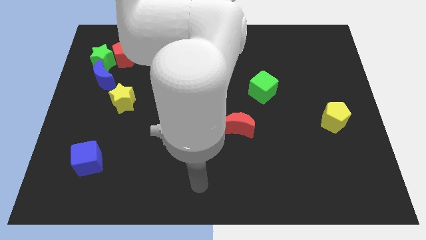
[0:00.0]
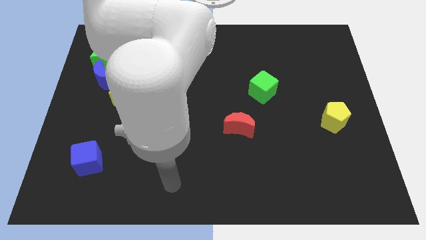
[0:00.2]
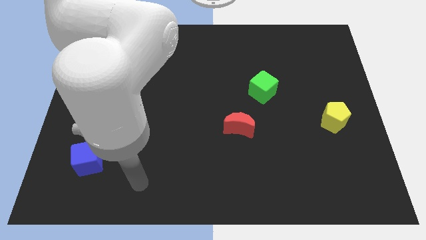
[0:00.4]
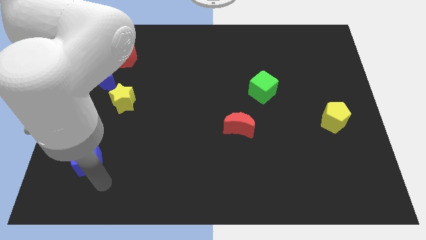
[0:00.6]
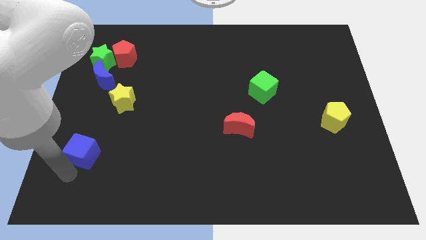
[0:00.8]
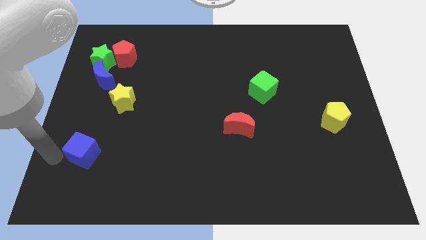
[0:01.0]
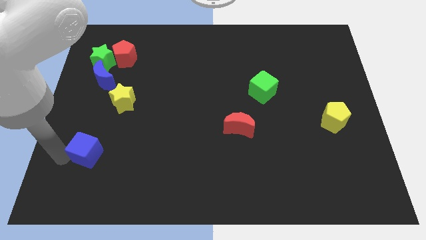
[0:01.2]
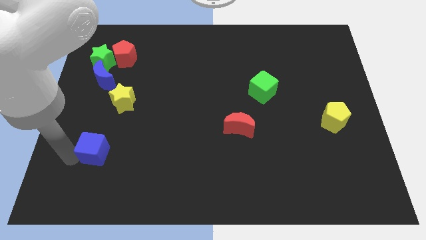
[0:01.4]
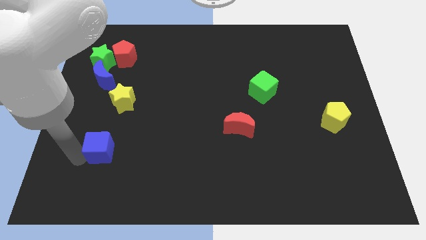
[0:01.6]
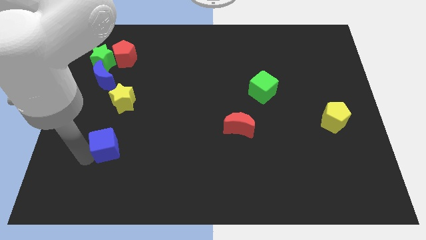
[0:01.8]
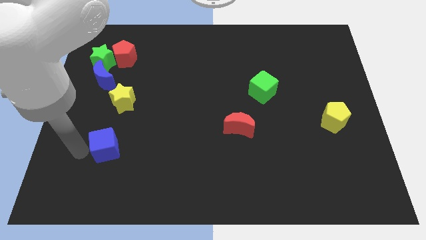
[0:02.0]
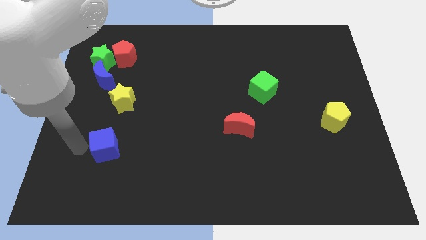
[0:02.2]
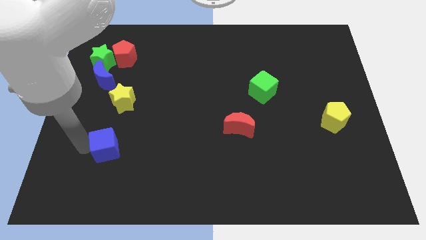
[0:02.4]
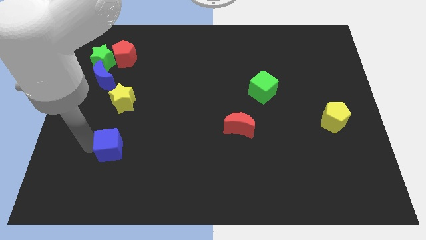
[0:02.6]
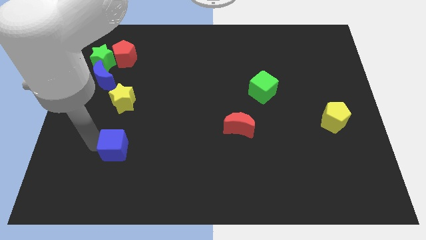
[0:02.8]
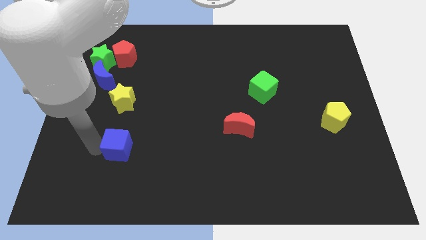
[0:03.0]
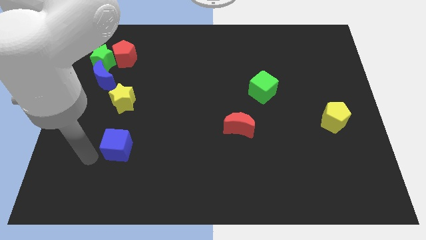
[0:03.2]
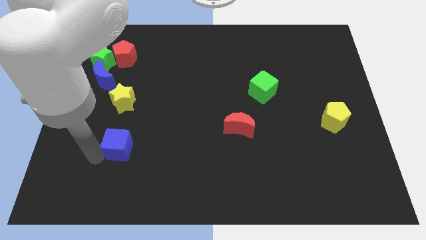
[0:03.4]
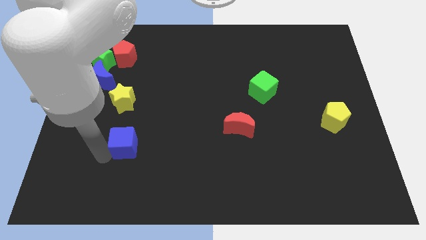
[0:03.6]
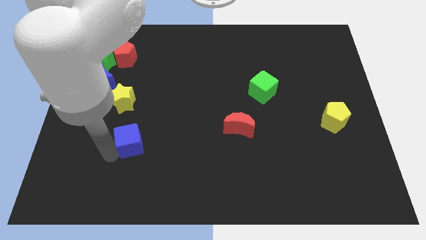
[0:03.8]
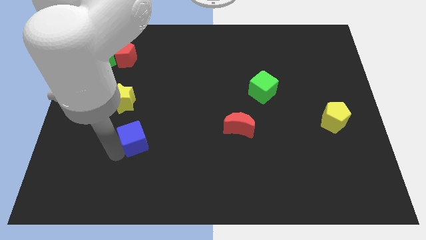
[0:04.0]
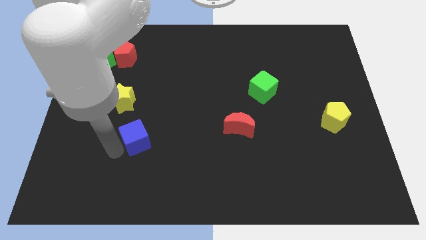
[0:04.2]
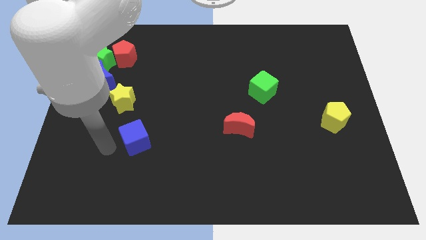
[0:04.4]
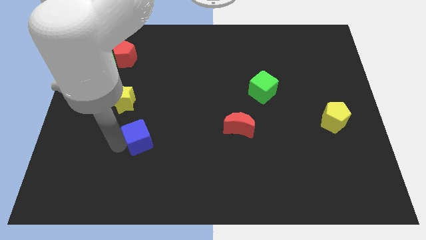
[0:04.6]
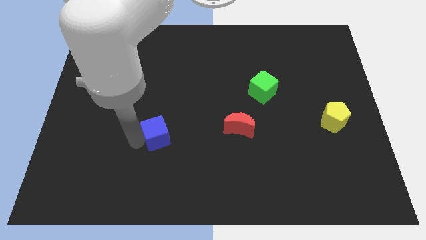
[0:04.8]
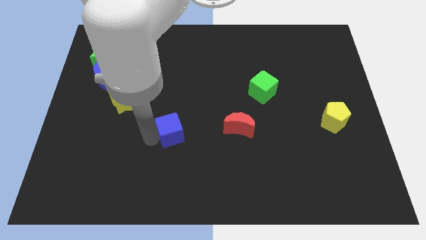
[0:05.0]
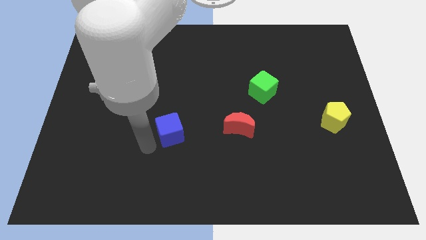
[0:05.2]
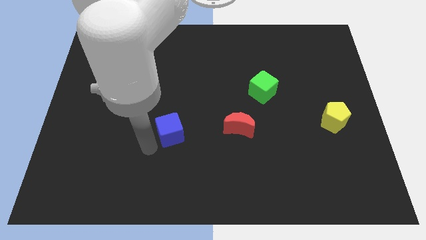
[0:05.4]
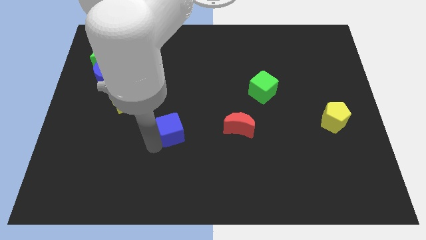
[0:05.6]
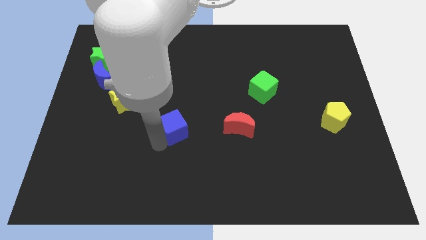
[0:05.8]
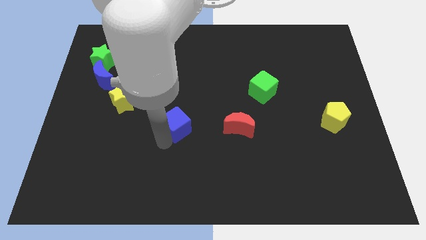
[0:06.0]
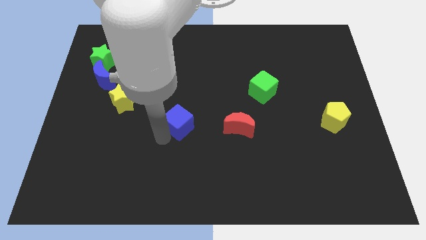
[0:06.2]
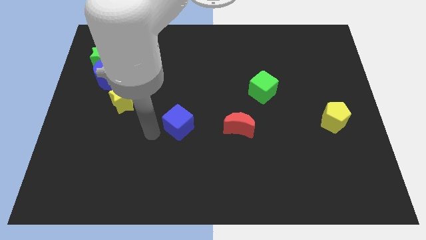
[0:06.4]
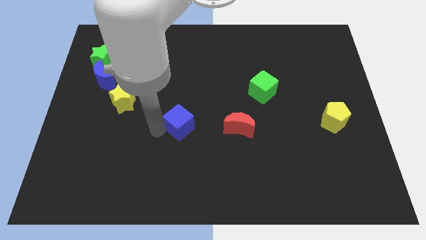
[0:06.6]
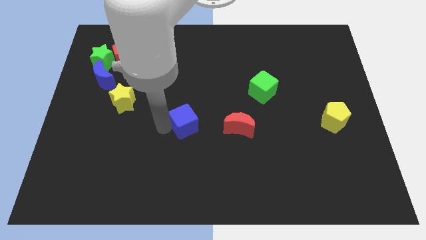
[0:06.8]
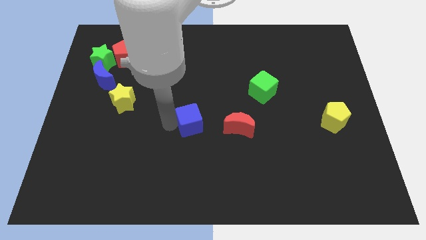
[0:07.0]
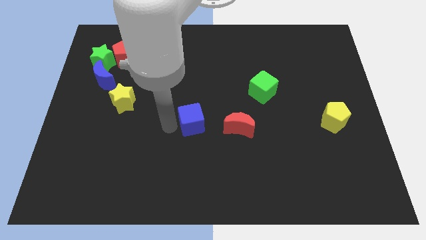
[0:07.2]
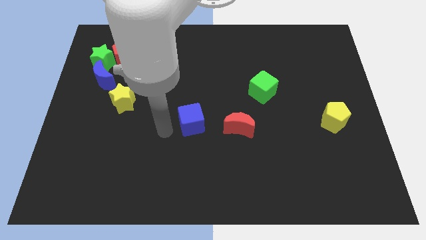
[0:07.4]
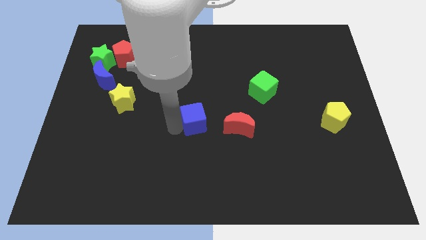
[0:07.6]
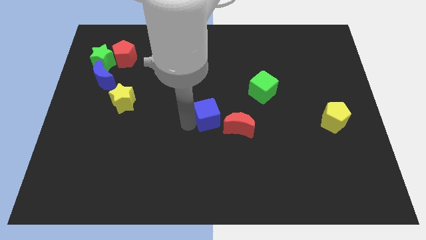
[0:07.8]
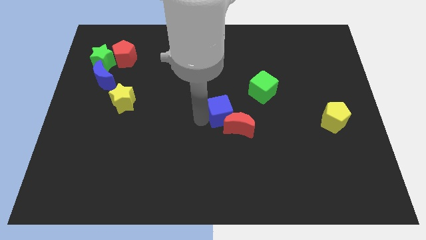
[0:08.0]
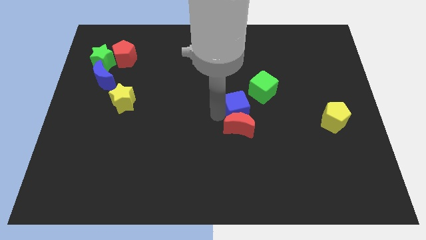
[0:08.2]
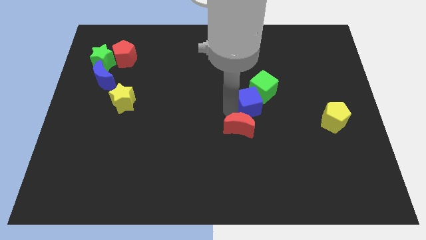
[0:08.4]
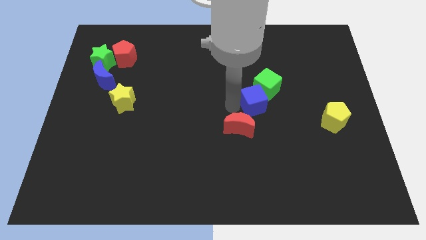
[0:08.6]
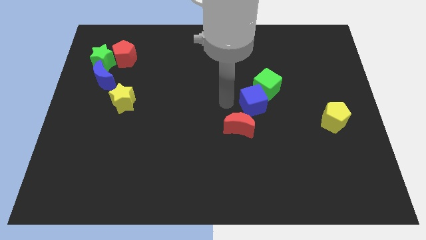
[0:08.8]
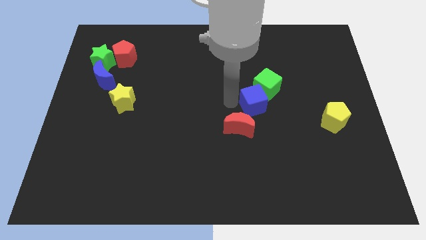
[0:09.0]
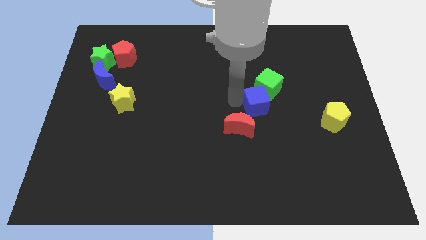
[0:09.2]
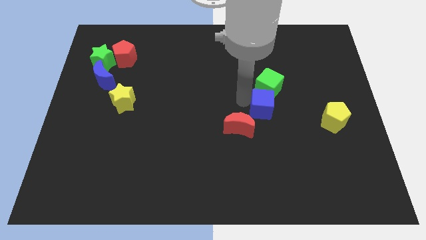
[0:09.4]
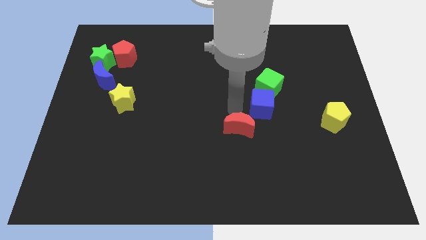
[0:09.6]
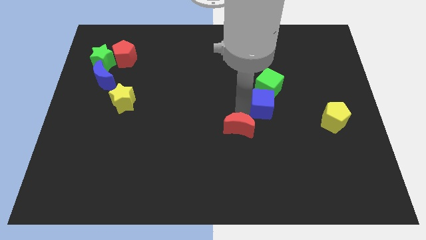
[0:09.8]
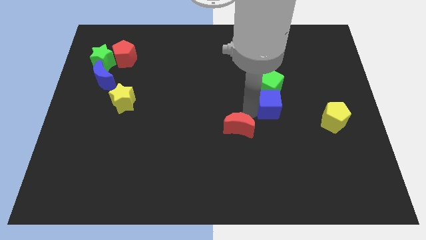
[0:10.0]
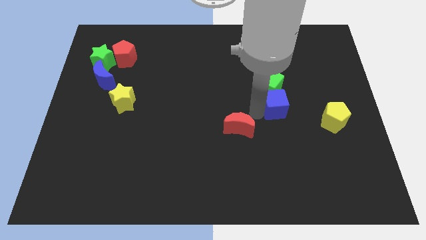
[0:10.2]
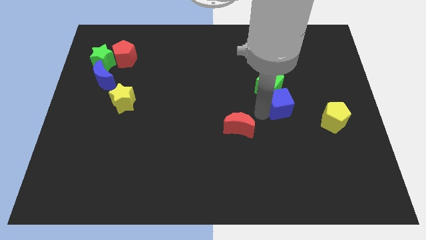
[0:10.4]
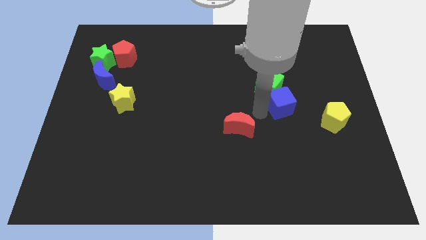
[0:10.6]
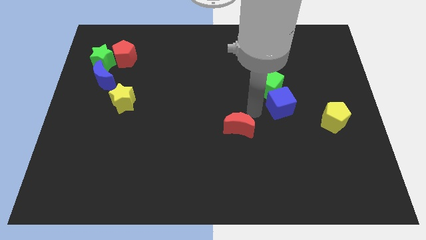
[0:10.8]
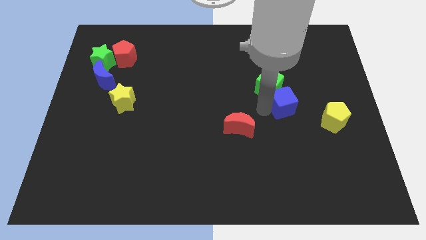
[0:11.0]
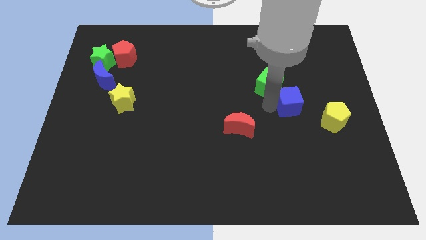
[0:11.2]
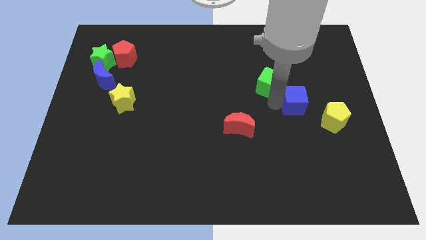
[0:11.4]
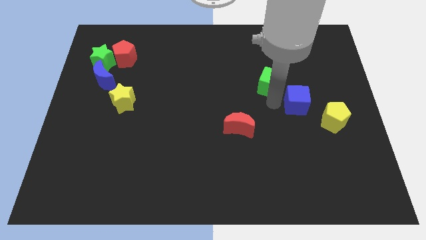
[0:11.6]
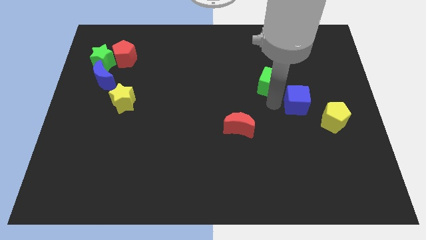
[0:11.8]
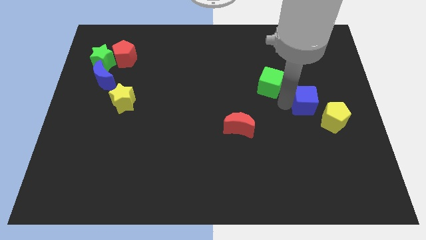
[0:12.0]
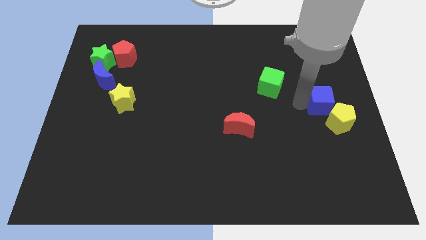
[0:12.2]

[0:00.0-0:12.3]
push the blue cube to the right side of the board
